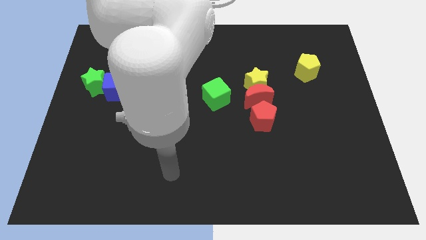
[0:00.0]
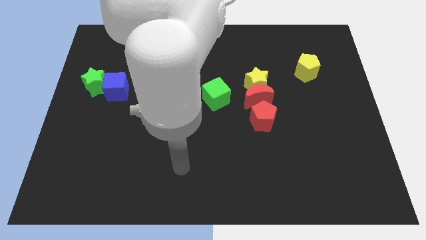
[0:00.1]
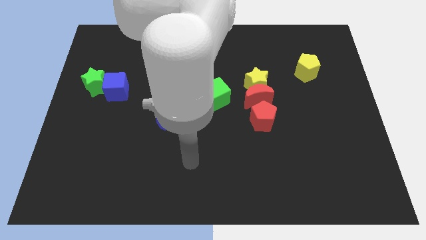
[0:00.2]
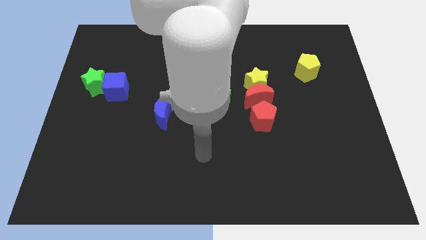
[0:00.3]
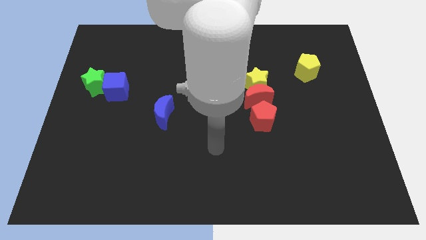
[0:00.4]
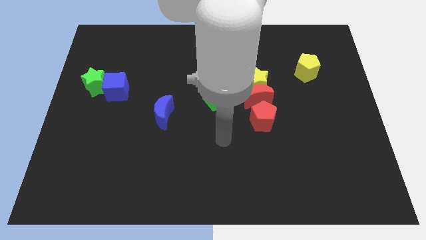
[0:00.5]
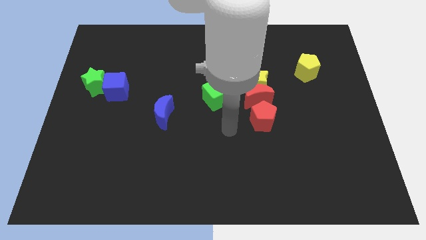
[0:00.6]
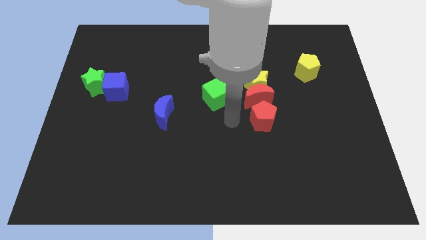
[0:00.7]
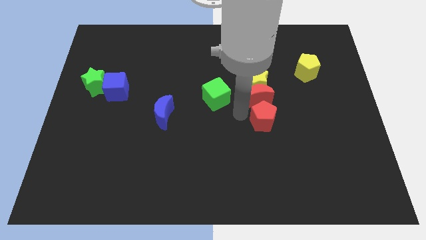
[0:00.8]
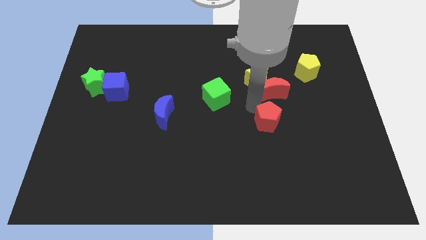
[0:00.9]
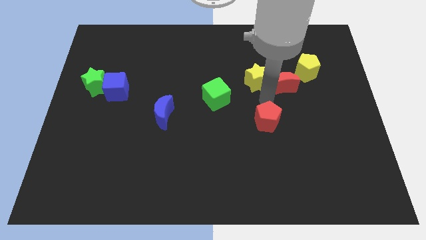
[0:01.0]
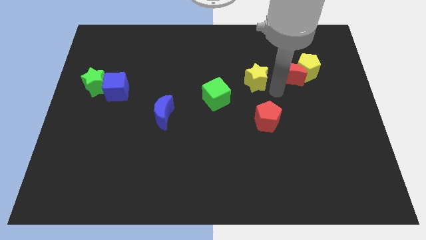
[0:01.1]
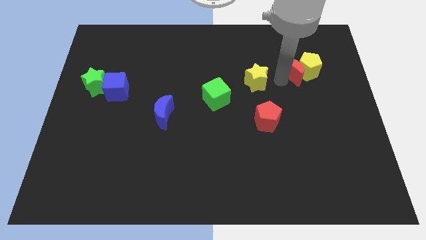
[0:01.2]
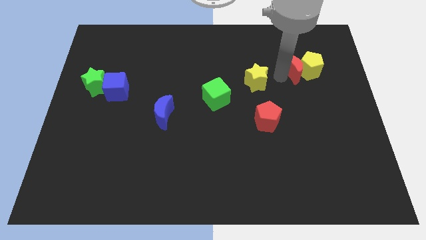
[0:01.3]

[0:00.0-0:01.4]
move the yellow star away from the red moon

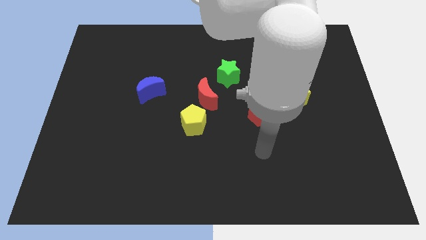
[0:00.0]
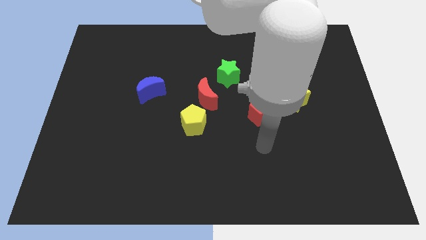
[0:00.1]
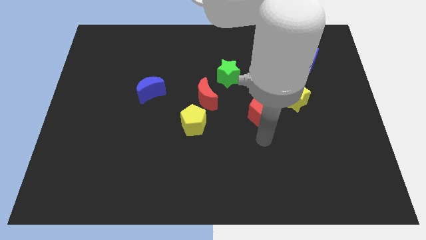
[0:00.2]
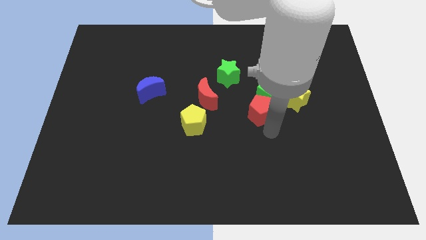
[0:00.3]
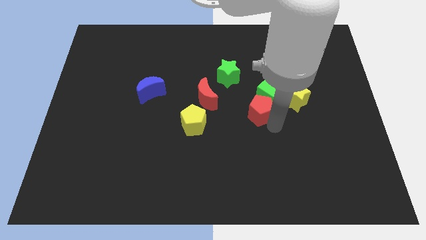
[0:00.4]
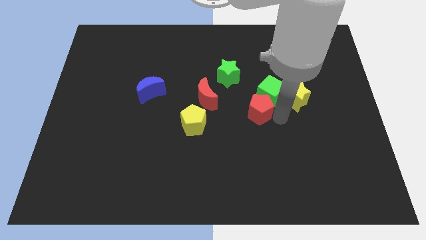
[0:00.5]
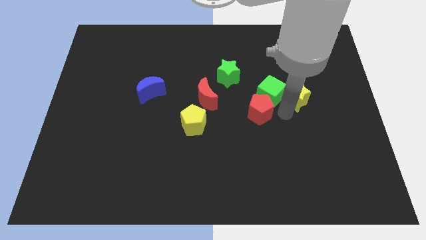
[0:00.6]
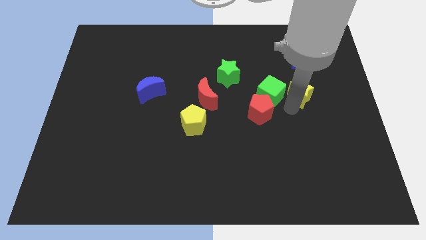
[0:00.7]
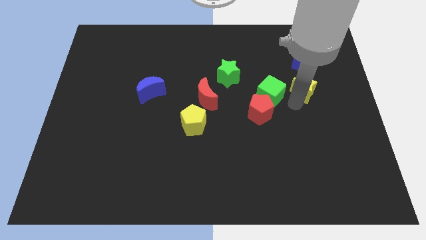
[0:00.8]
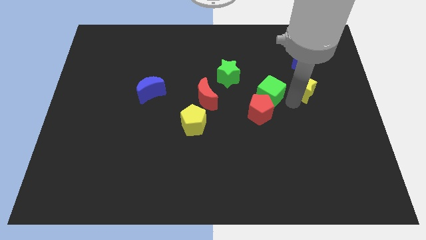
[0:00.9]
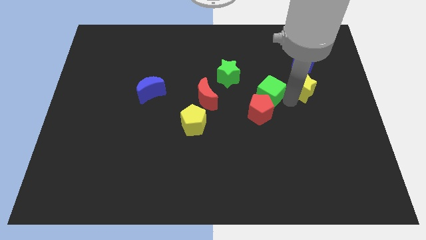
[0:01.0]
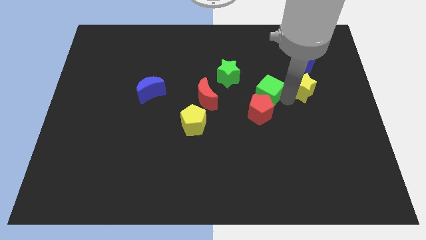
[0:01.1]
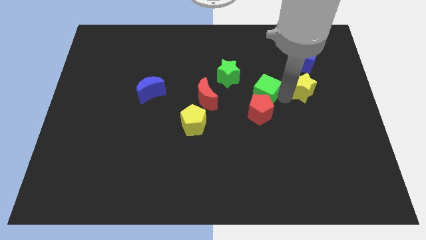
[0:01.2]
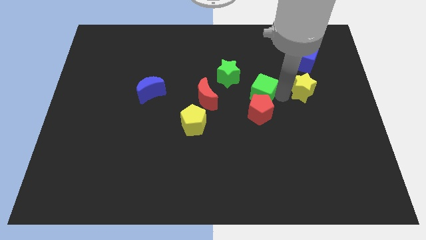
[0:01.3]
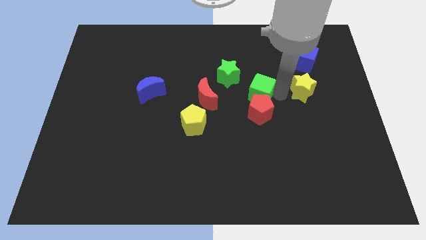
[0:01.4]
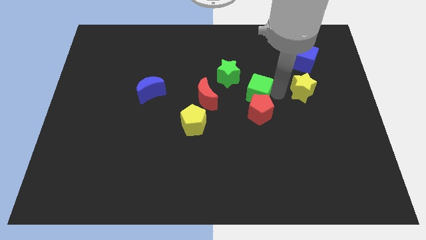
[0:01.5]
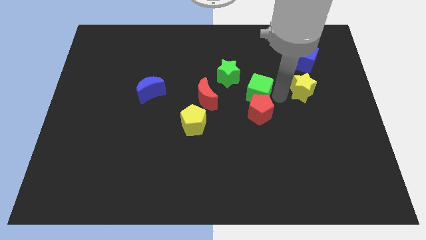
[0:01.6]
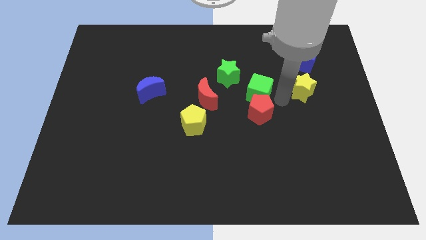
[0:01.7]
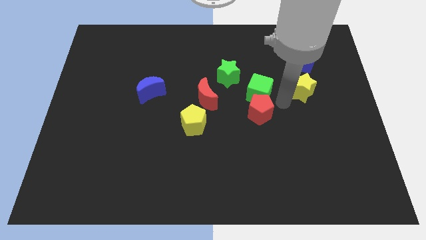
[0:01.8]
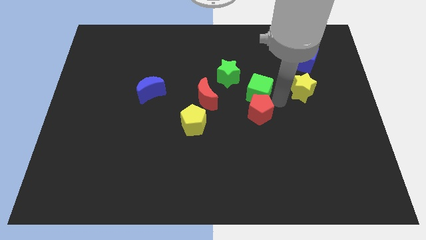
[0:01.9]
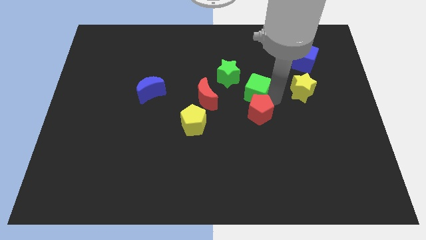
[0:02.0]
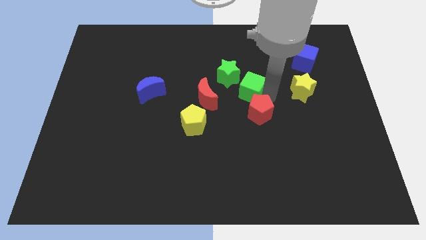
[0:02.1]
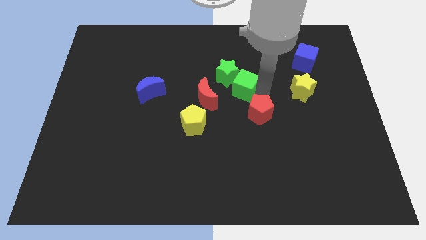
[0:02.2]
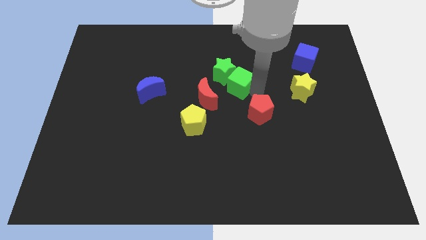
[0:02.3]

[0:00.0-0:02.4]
move the green cube away from the red pentagon and yellow star

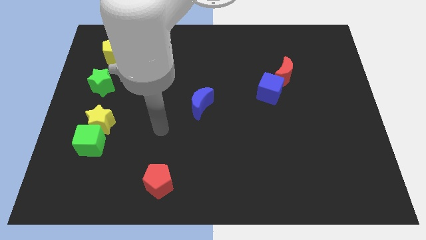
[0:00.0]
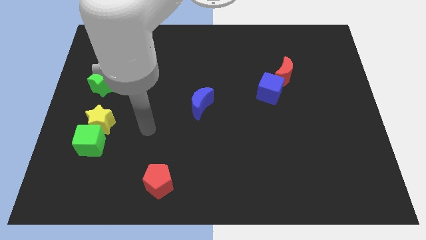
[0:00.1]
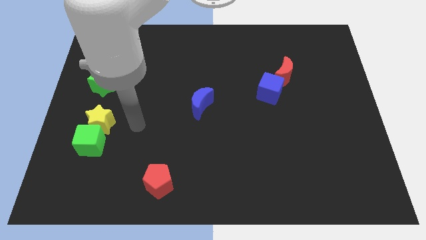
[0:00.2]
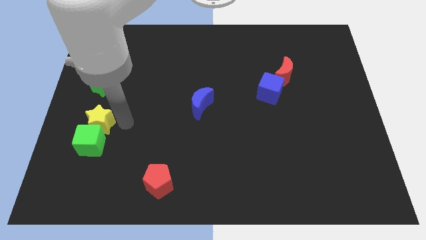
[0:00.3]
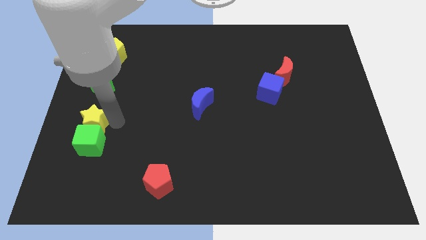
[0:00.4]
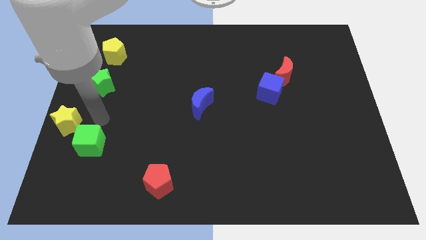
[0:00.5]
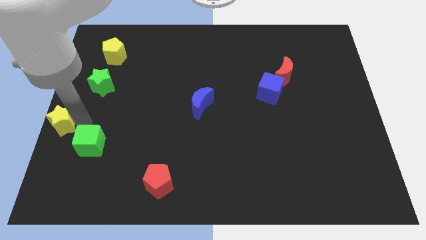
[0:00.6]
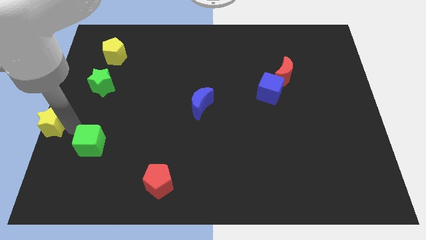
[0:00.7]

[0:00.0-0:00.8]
pull the green cube apart from the yellow star

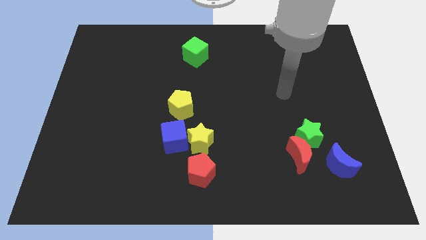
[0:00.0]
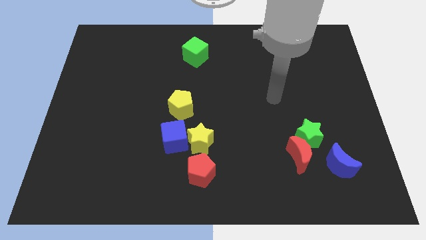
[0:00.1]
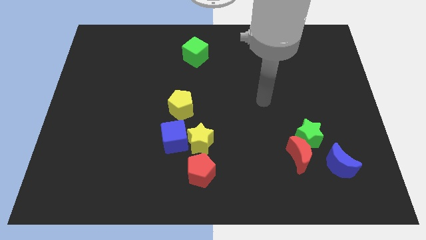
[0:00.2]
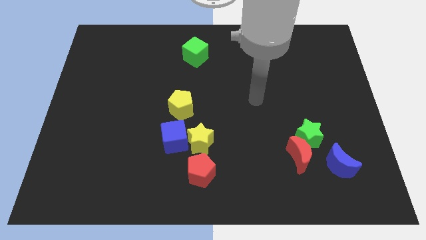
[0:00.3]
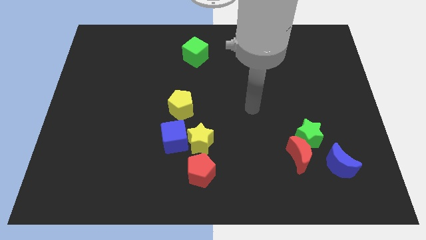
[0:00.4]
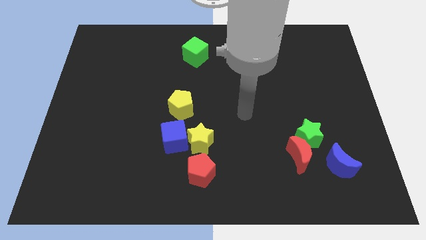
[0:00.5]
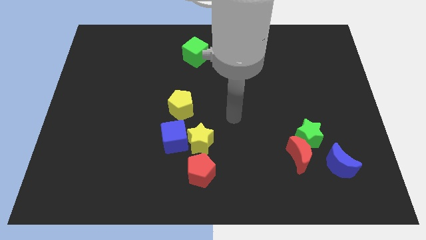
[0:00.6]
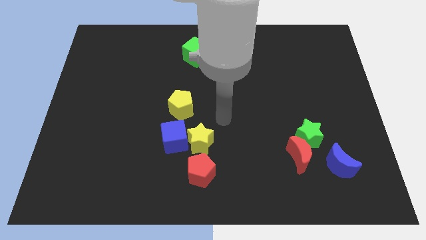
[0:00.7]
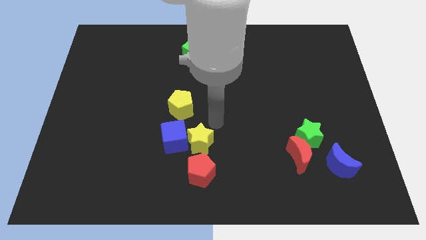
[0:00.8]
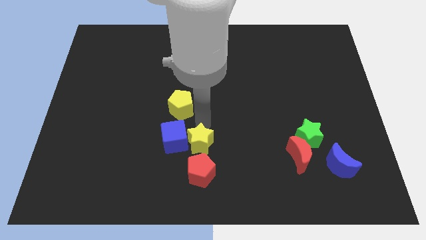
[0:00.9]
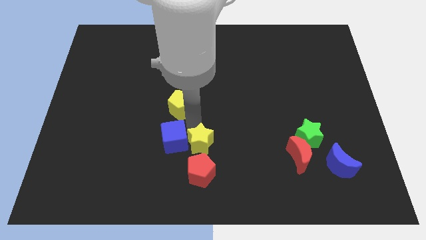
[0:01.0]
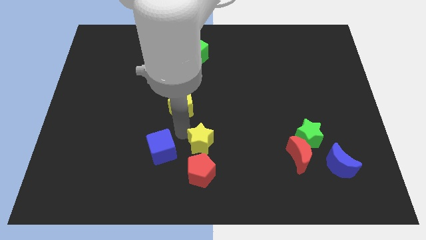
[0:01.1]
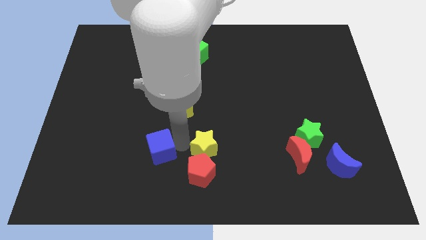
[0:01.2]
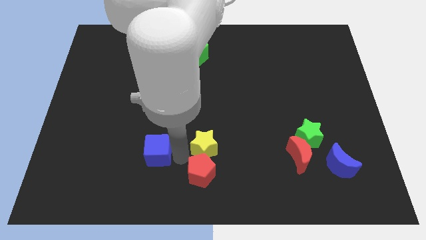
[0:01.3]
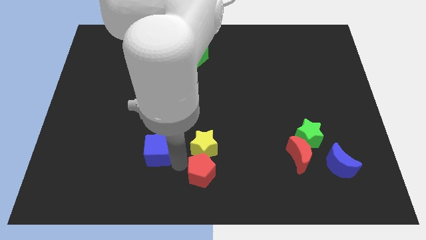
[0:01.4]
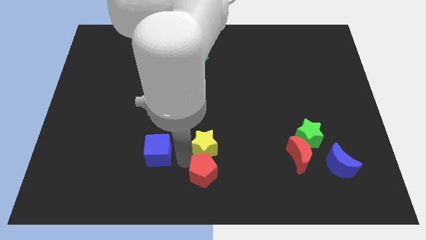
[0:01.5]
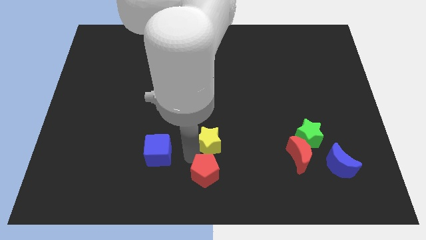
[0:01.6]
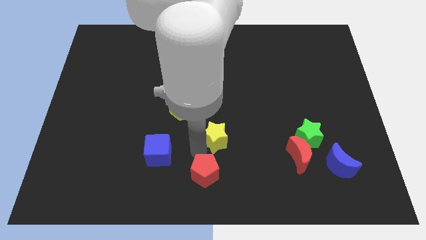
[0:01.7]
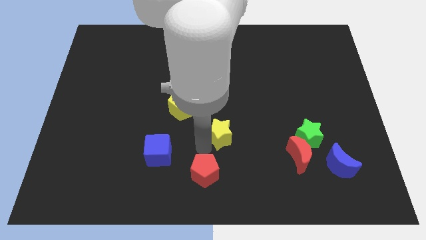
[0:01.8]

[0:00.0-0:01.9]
move the yellow star away from the blue cube and red pentagon

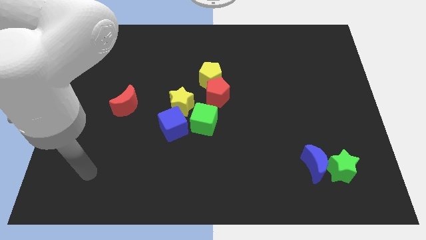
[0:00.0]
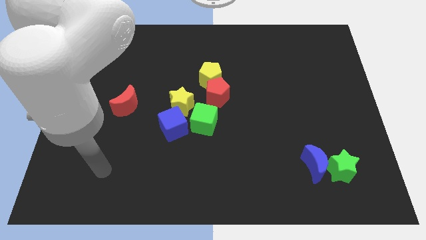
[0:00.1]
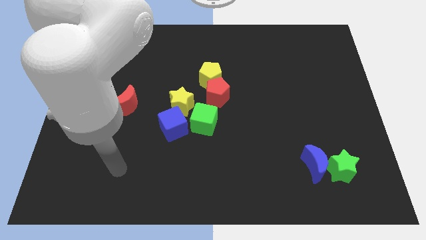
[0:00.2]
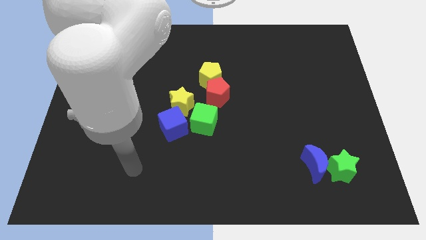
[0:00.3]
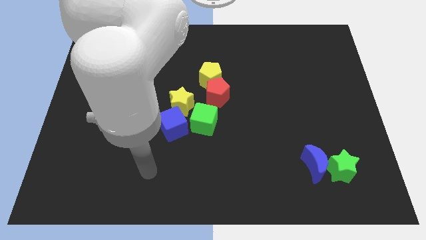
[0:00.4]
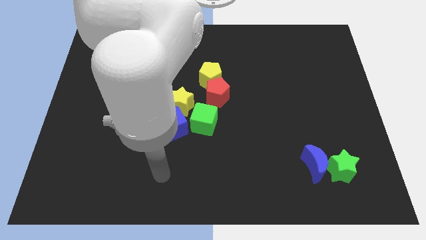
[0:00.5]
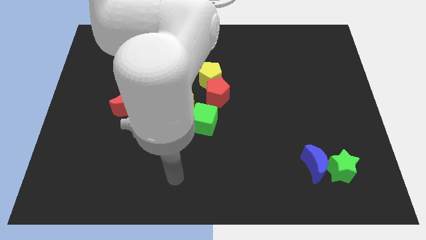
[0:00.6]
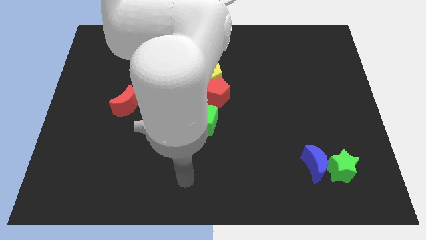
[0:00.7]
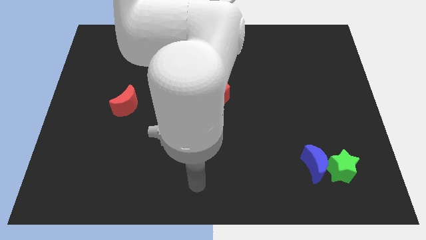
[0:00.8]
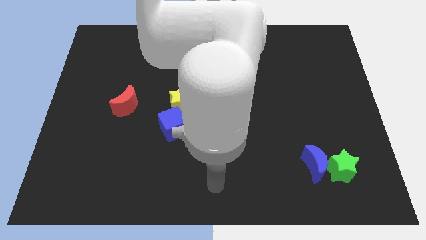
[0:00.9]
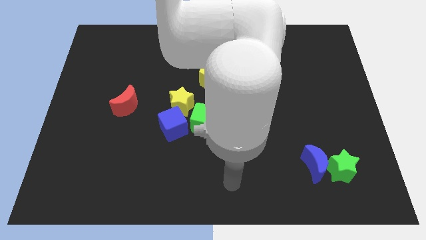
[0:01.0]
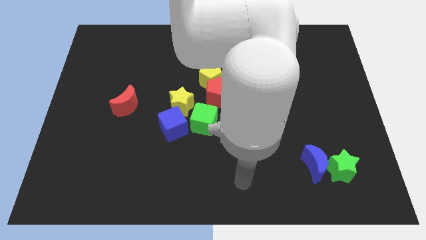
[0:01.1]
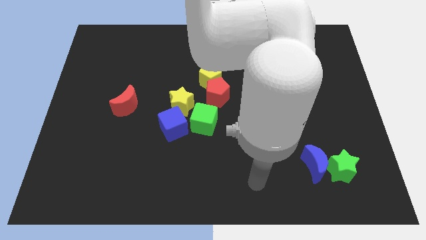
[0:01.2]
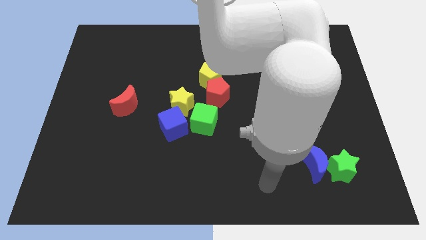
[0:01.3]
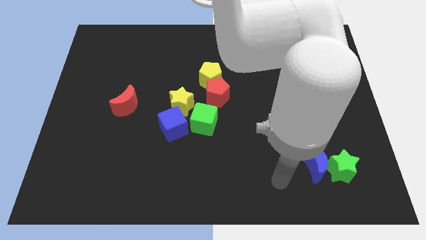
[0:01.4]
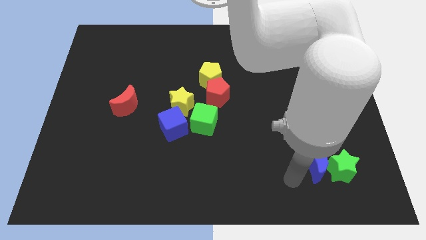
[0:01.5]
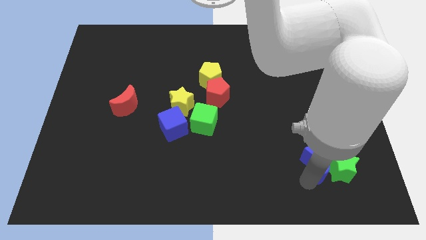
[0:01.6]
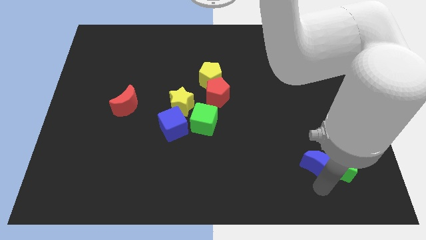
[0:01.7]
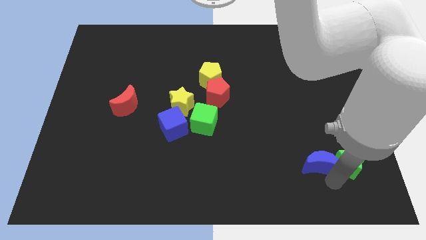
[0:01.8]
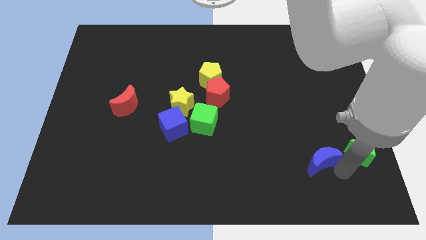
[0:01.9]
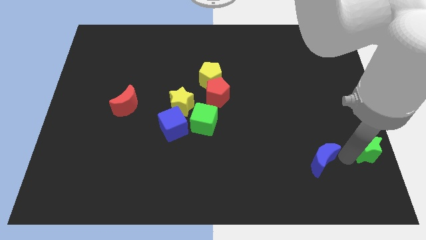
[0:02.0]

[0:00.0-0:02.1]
move the blue moon away from the green star

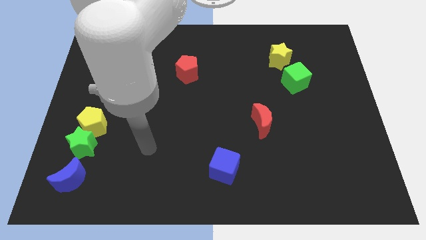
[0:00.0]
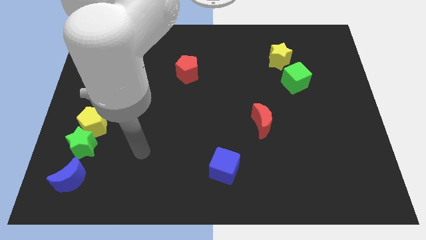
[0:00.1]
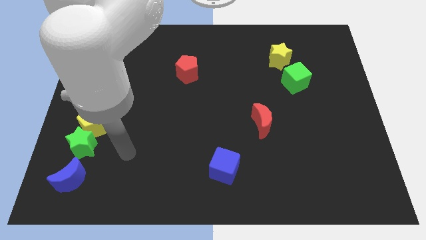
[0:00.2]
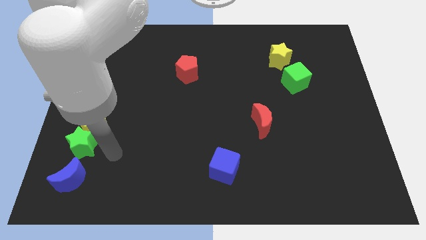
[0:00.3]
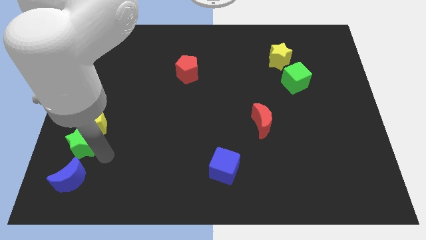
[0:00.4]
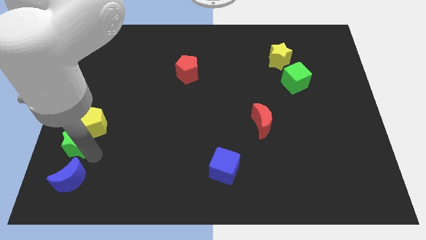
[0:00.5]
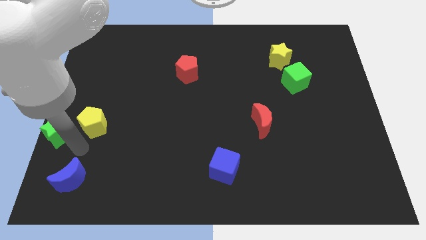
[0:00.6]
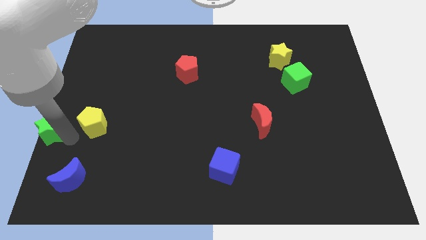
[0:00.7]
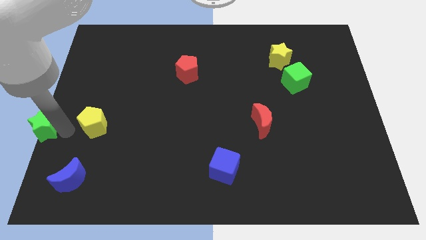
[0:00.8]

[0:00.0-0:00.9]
separate the yellow pentagon from the green star
